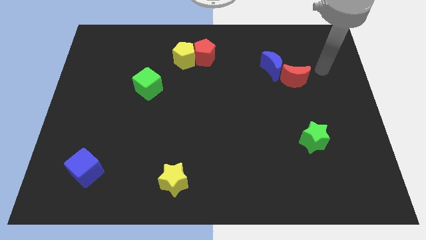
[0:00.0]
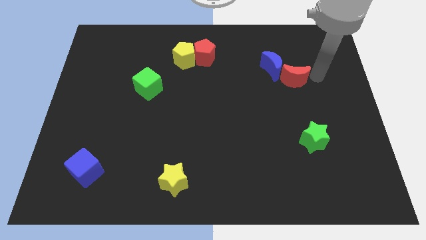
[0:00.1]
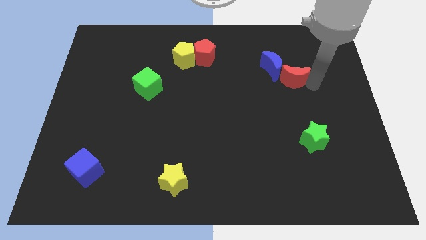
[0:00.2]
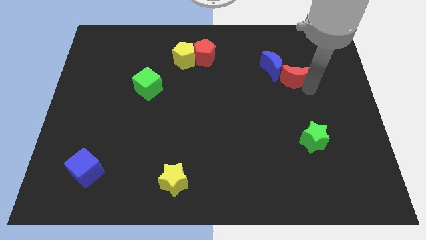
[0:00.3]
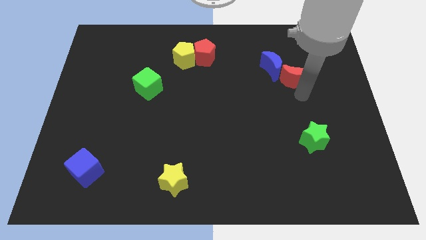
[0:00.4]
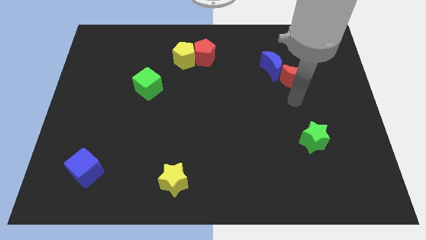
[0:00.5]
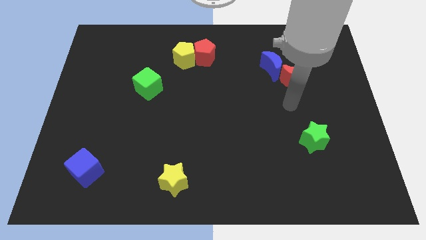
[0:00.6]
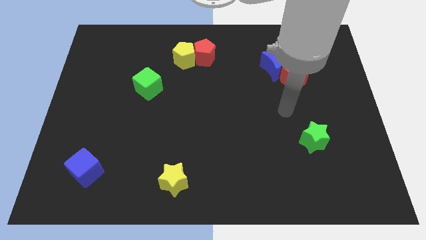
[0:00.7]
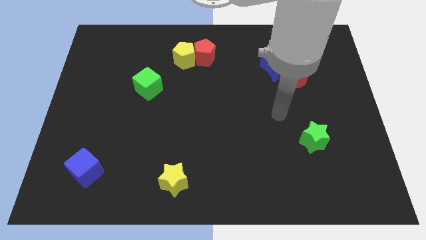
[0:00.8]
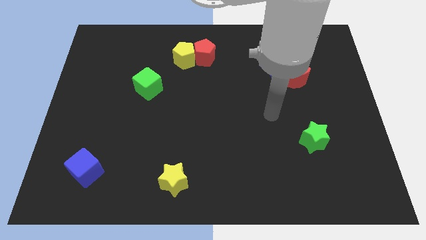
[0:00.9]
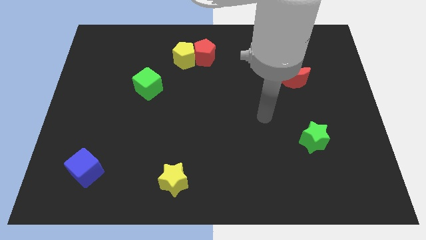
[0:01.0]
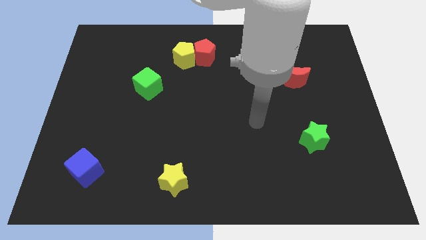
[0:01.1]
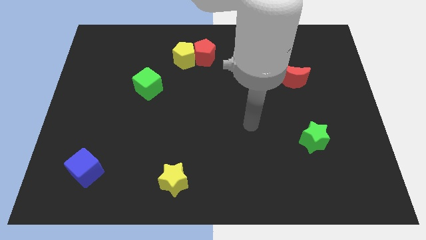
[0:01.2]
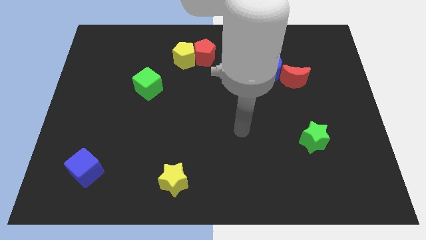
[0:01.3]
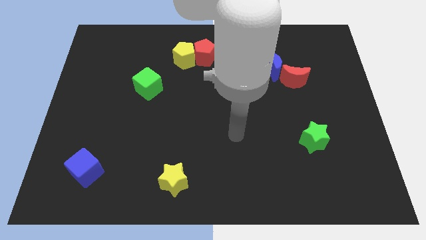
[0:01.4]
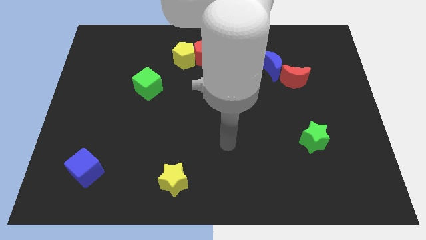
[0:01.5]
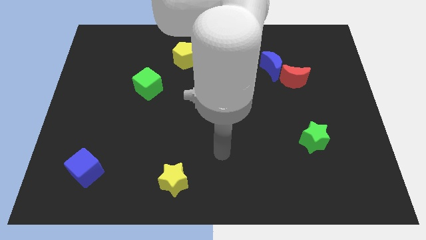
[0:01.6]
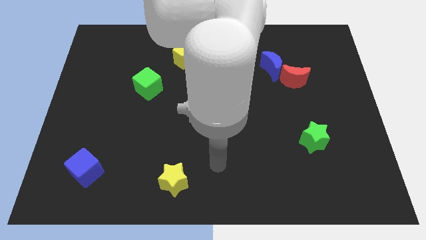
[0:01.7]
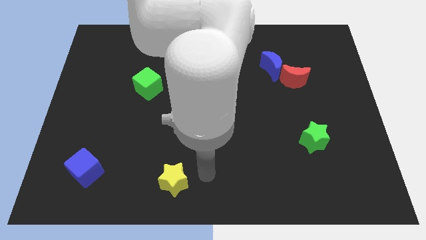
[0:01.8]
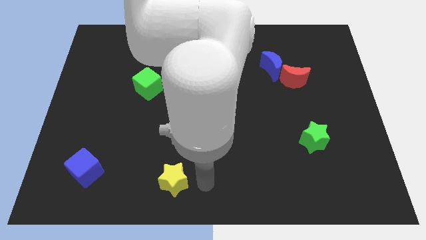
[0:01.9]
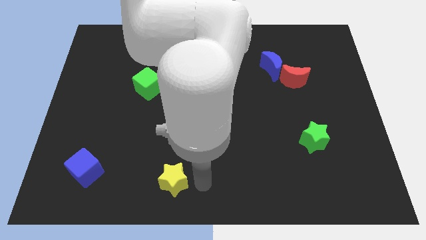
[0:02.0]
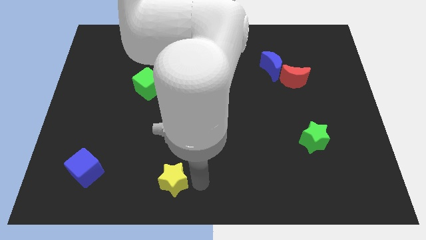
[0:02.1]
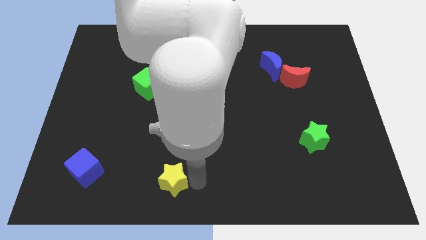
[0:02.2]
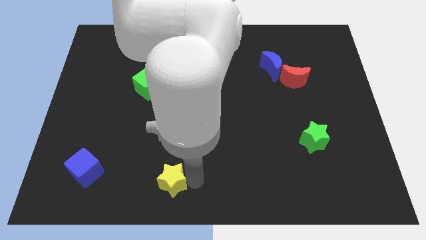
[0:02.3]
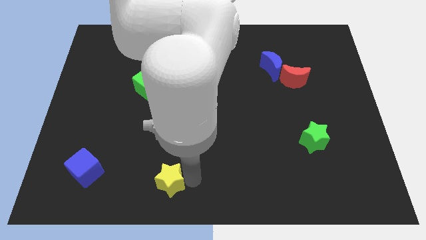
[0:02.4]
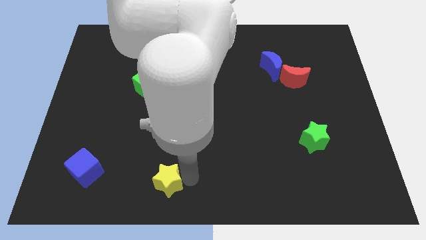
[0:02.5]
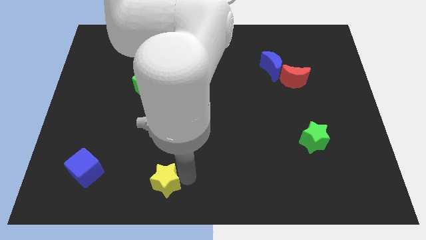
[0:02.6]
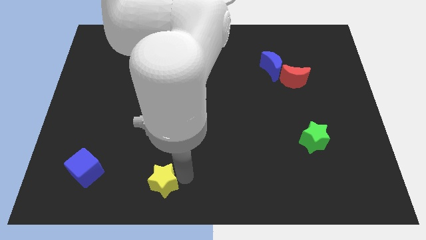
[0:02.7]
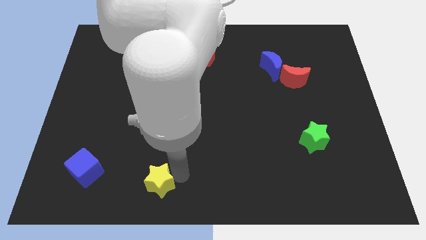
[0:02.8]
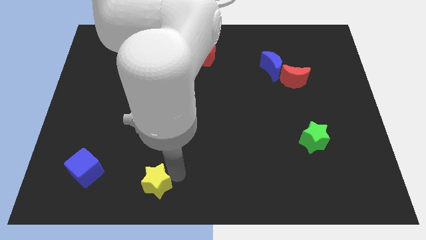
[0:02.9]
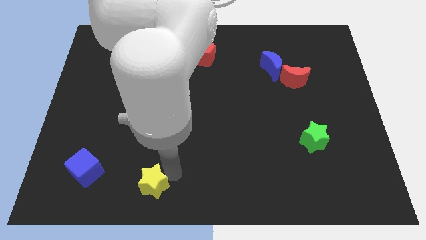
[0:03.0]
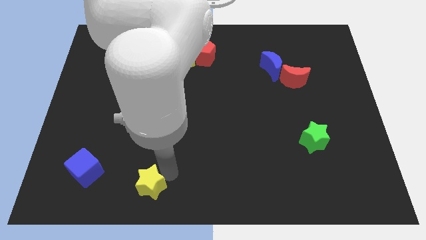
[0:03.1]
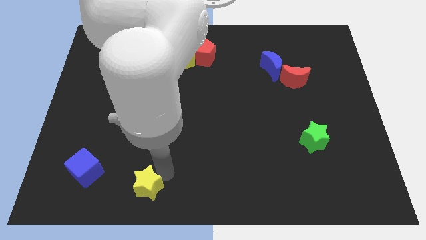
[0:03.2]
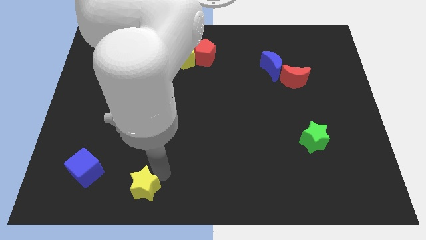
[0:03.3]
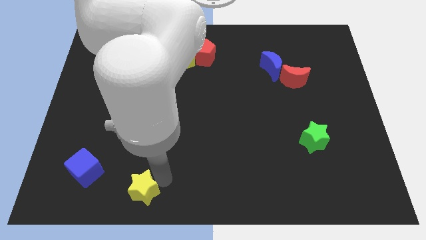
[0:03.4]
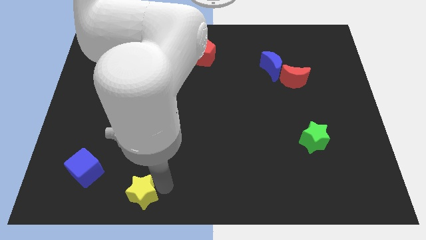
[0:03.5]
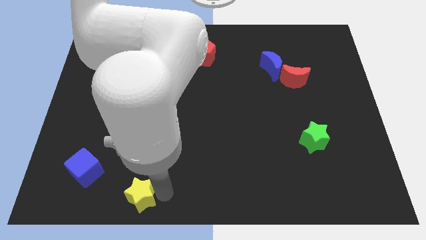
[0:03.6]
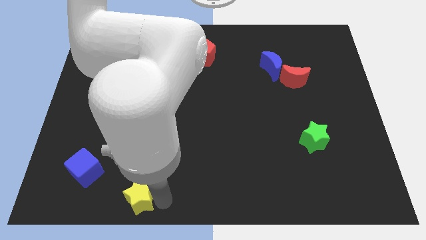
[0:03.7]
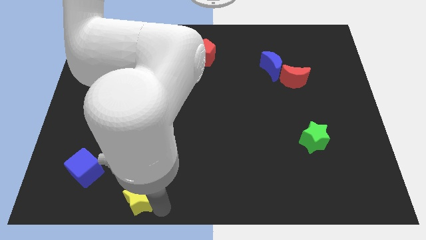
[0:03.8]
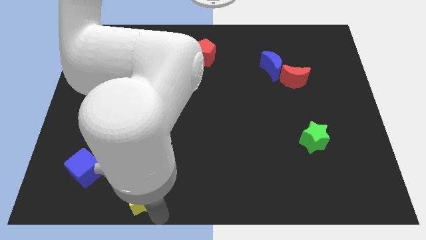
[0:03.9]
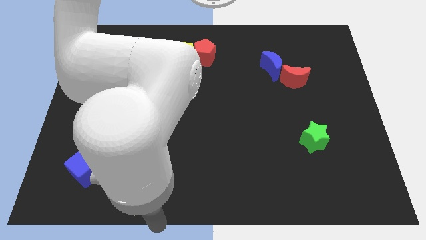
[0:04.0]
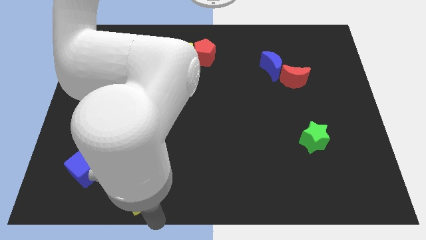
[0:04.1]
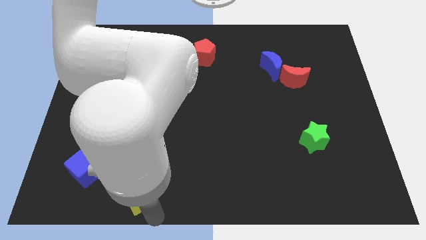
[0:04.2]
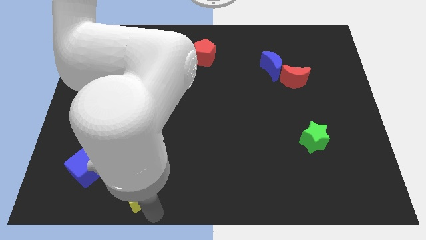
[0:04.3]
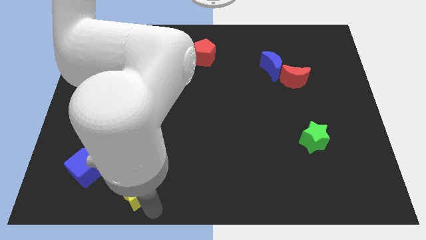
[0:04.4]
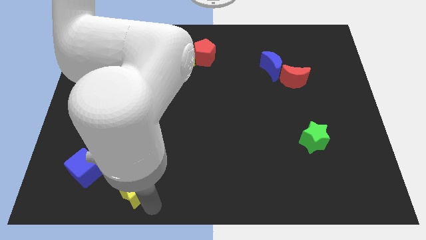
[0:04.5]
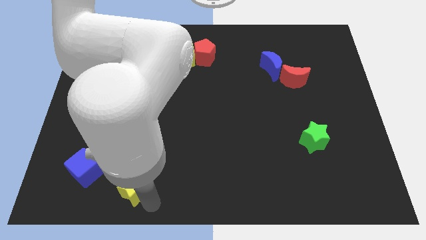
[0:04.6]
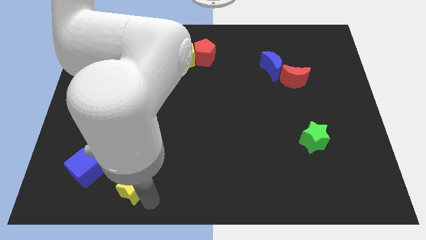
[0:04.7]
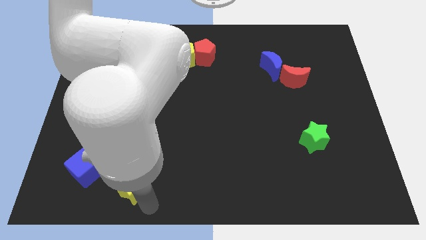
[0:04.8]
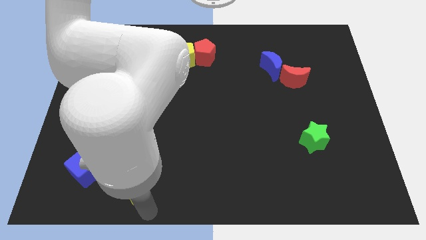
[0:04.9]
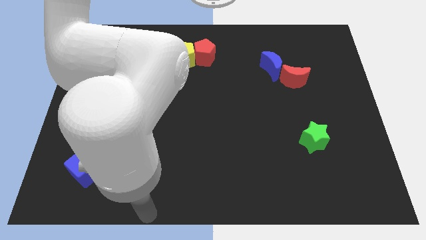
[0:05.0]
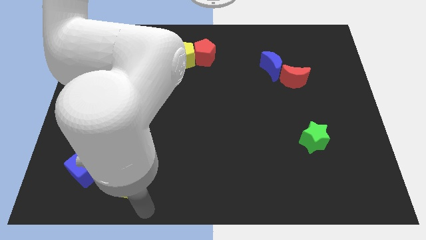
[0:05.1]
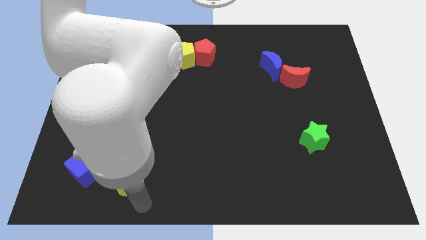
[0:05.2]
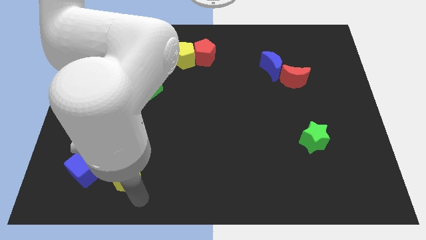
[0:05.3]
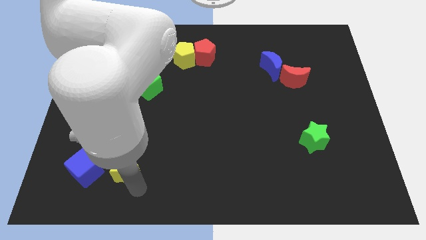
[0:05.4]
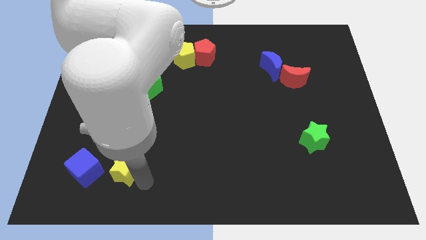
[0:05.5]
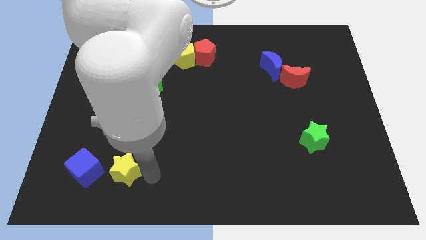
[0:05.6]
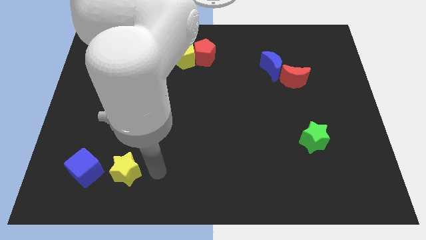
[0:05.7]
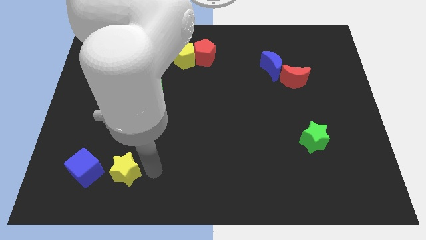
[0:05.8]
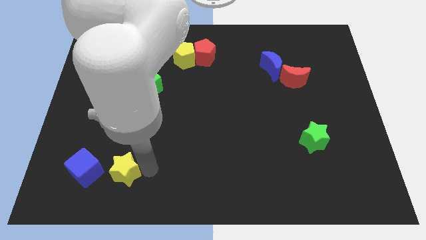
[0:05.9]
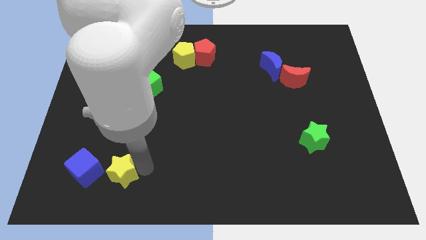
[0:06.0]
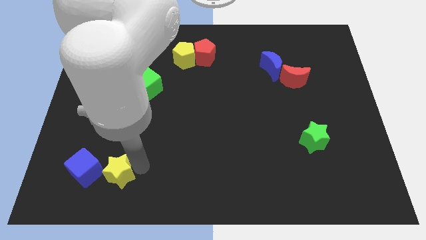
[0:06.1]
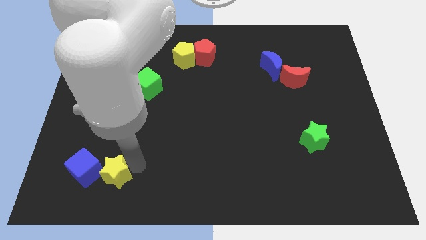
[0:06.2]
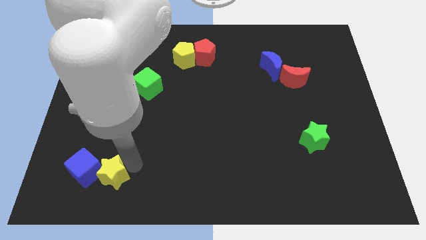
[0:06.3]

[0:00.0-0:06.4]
move the yellow star to the blue cube
